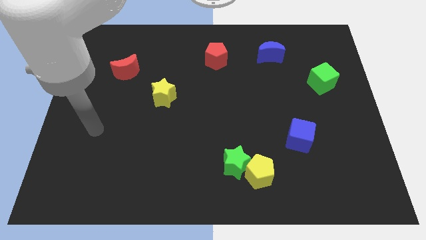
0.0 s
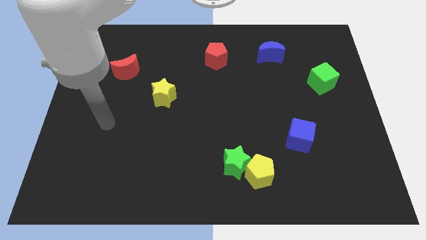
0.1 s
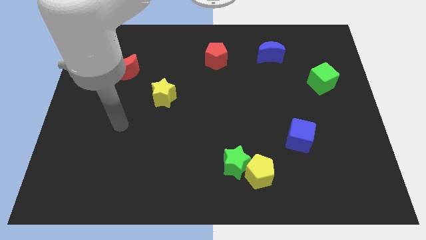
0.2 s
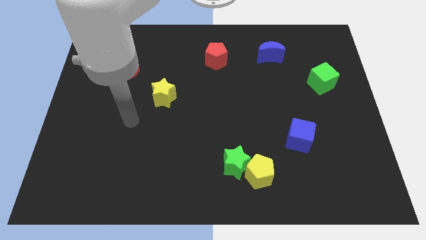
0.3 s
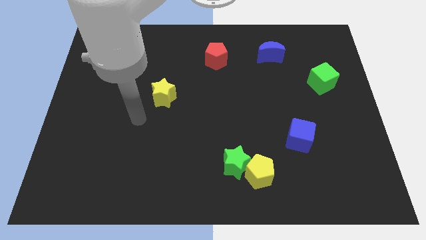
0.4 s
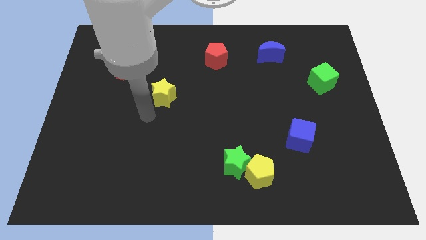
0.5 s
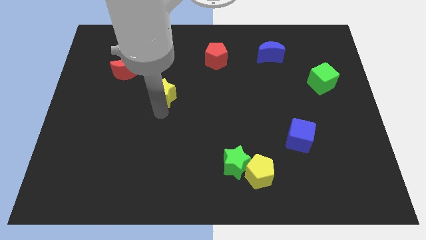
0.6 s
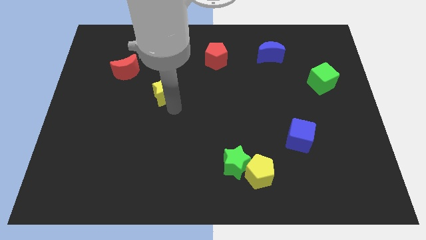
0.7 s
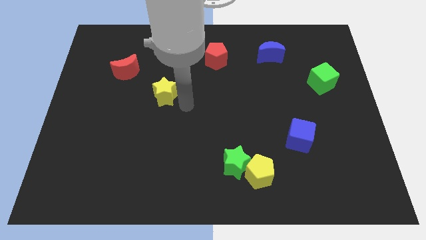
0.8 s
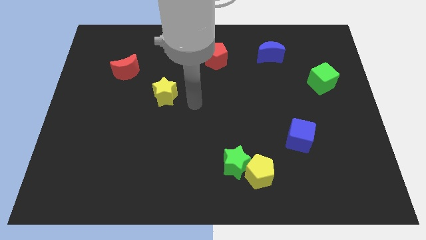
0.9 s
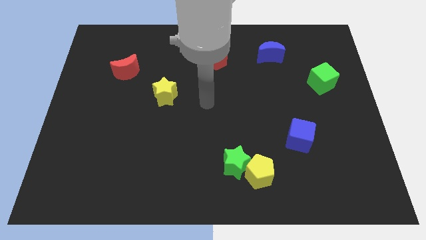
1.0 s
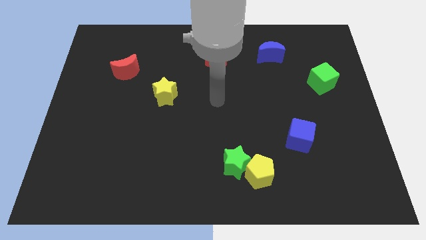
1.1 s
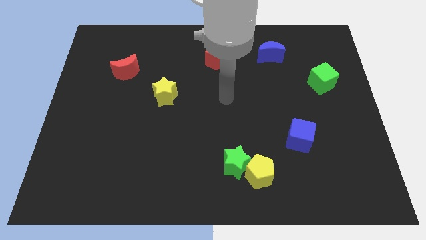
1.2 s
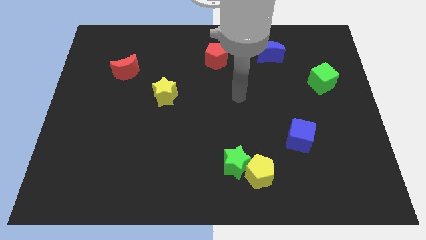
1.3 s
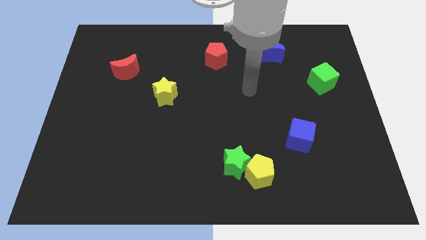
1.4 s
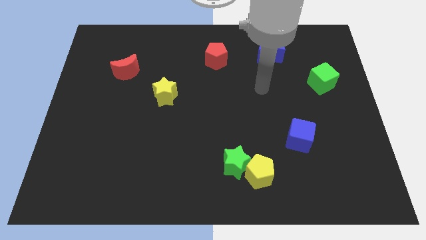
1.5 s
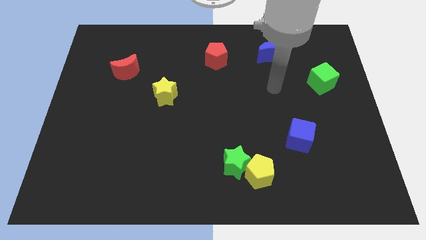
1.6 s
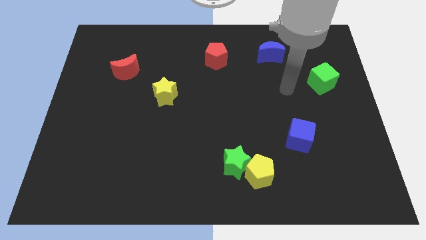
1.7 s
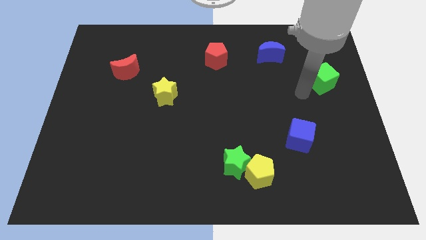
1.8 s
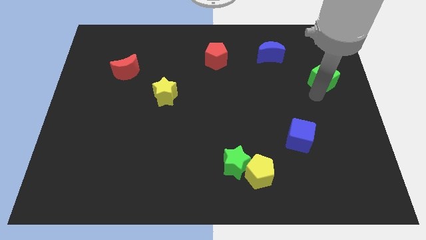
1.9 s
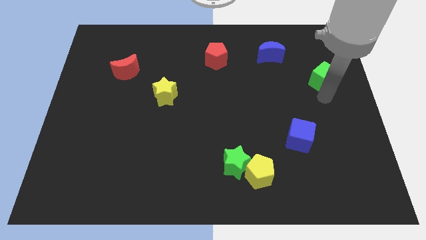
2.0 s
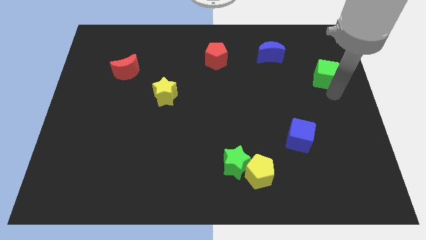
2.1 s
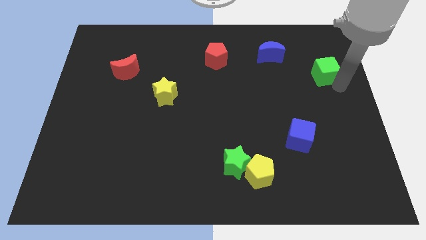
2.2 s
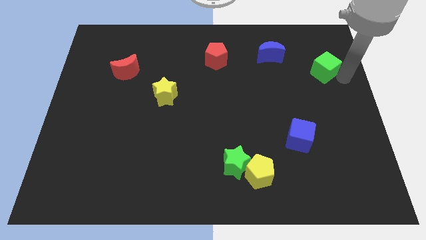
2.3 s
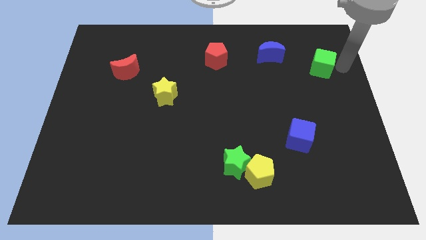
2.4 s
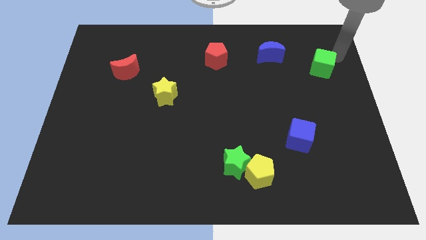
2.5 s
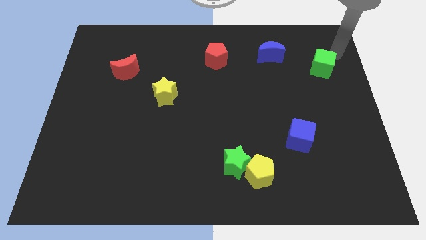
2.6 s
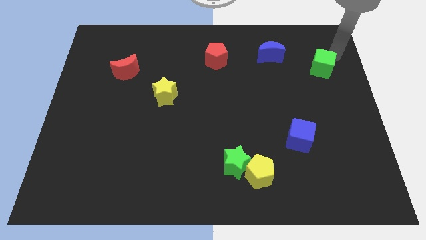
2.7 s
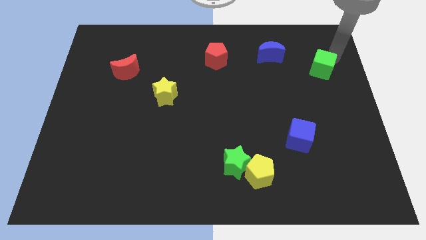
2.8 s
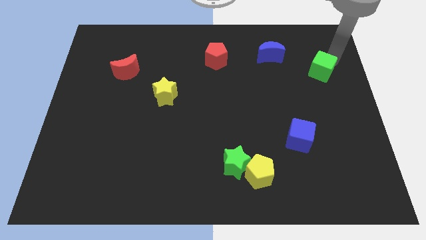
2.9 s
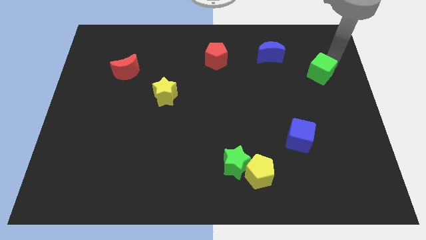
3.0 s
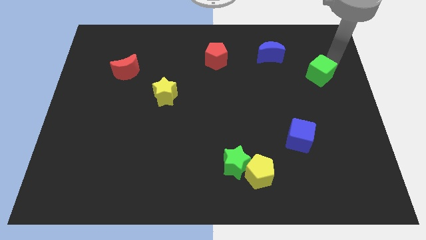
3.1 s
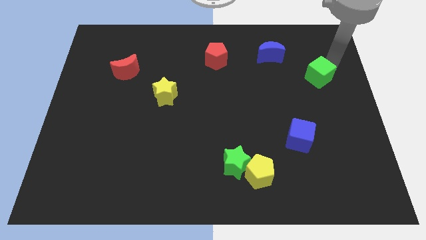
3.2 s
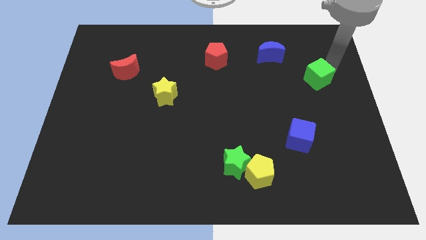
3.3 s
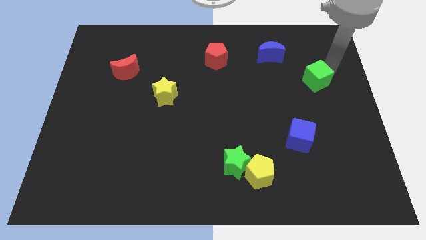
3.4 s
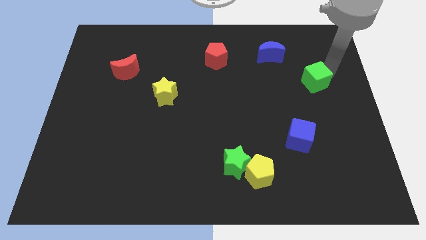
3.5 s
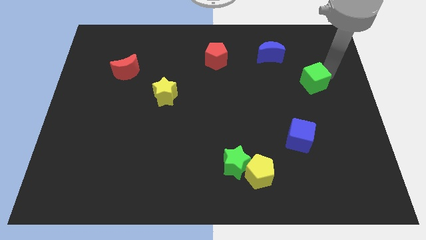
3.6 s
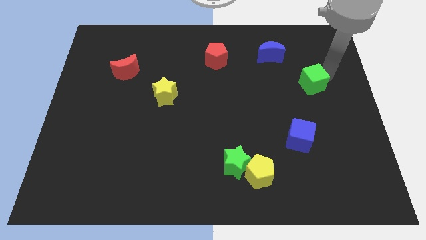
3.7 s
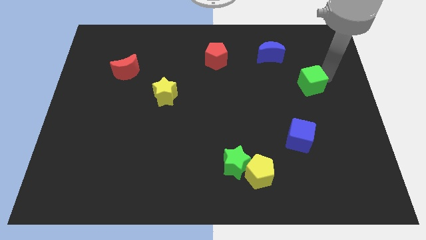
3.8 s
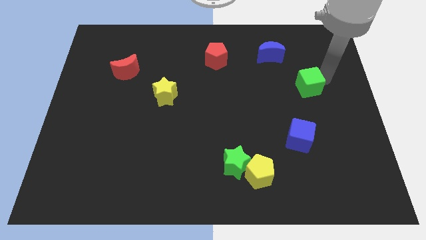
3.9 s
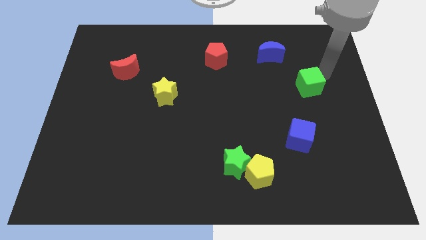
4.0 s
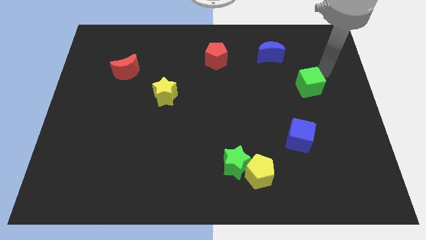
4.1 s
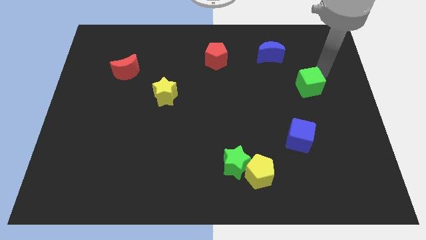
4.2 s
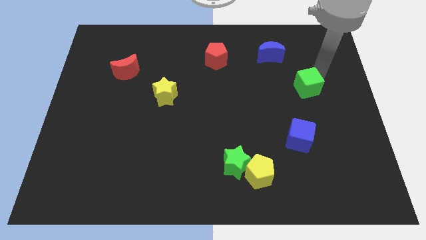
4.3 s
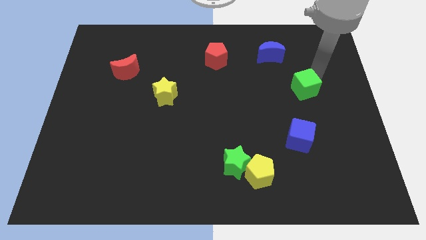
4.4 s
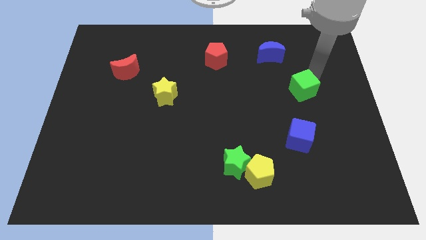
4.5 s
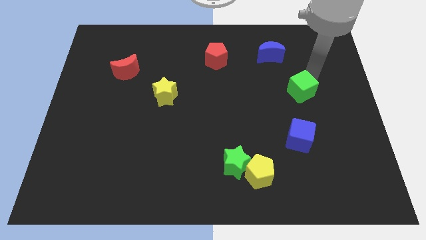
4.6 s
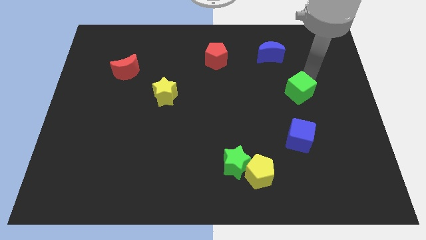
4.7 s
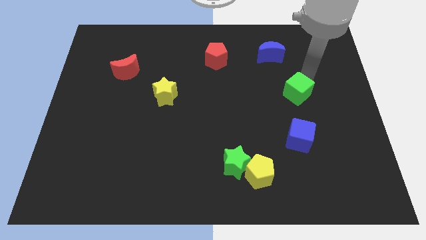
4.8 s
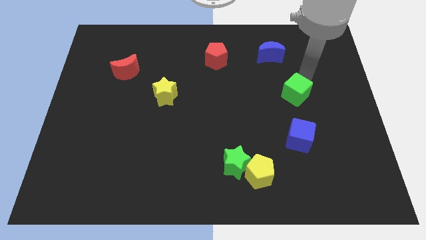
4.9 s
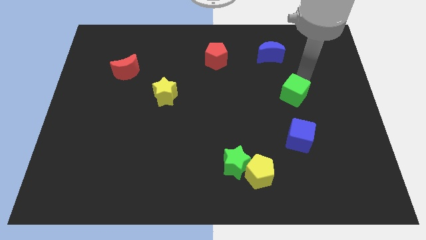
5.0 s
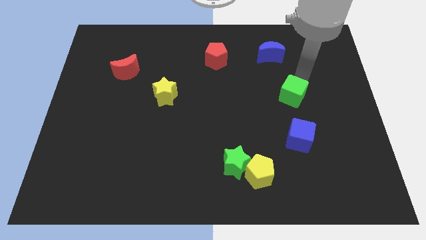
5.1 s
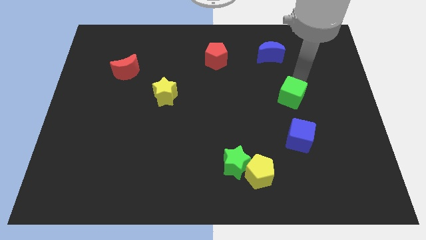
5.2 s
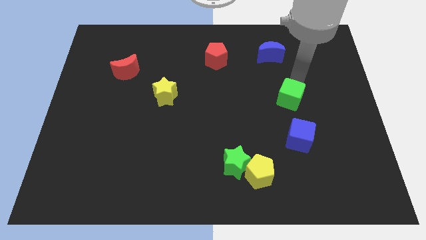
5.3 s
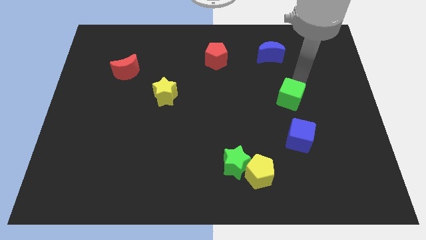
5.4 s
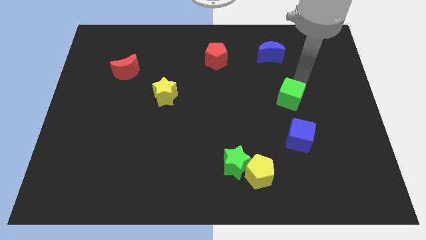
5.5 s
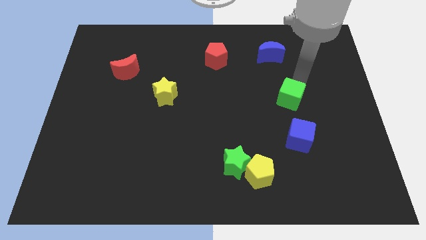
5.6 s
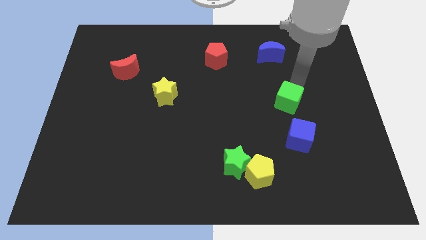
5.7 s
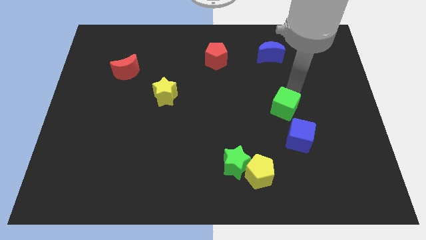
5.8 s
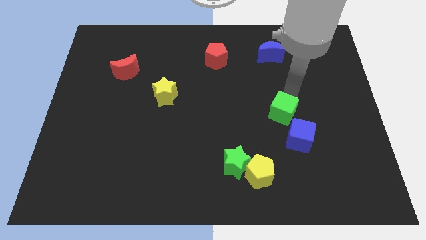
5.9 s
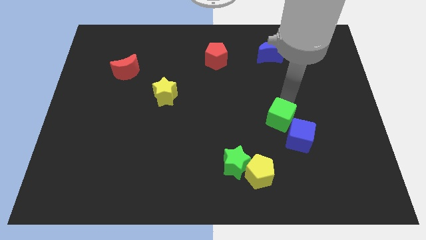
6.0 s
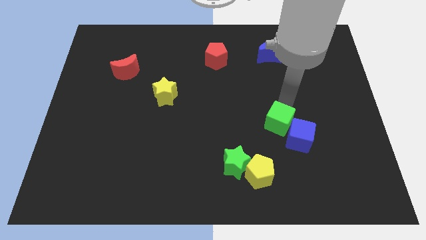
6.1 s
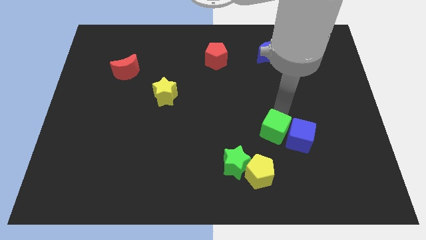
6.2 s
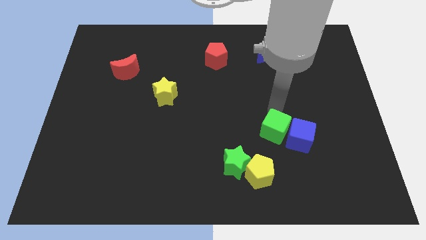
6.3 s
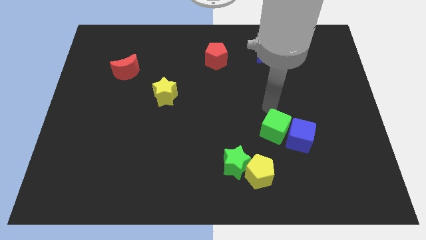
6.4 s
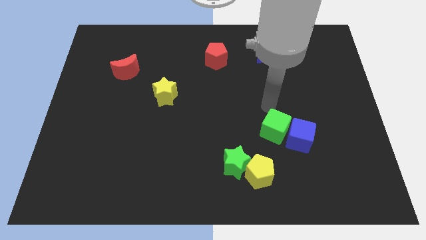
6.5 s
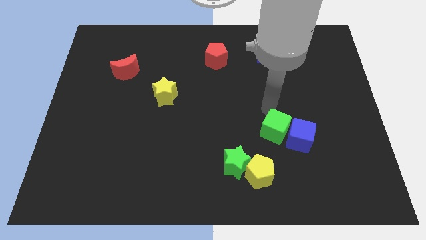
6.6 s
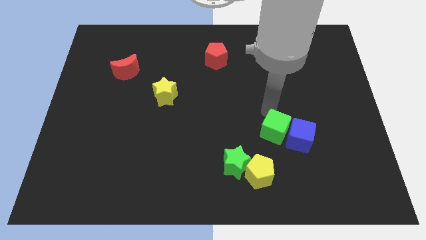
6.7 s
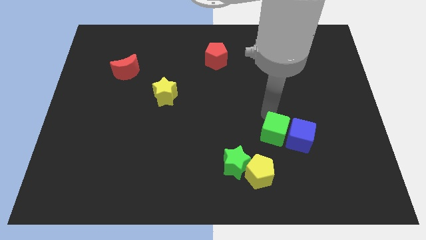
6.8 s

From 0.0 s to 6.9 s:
slide the green cube diagonally up and to the right of the yellow pentagon

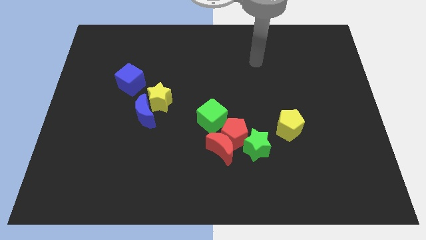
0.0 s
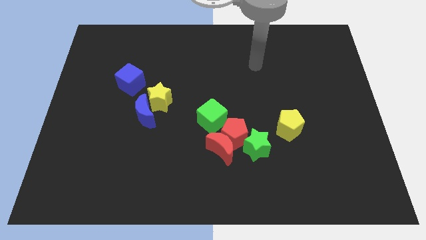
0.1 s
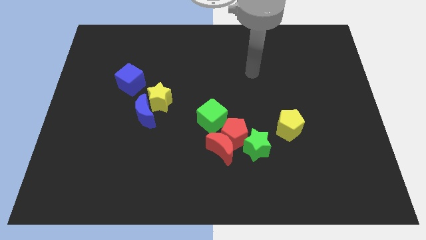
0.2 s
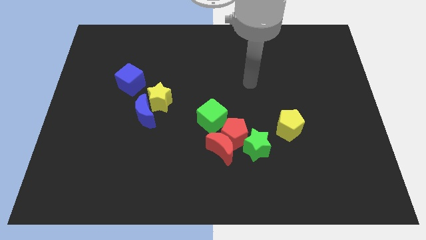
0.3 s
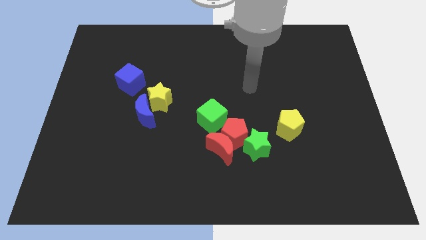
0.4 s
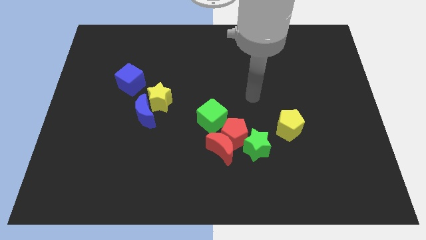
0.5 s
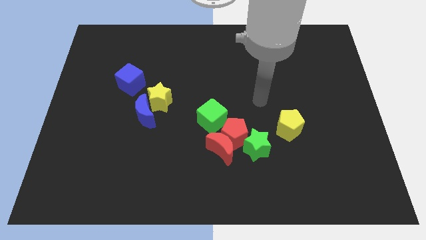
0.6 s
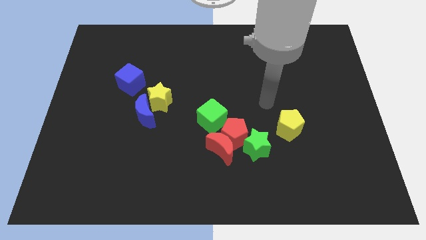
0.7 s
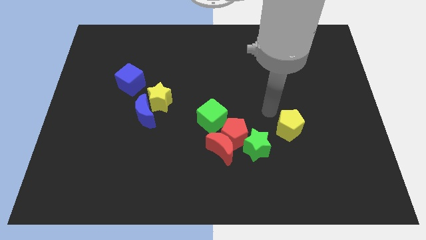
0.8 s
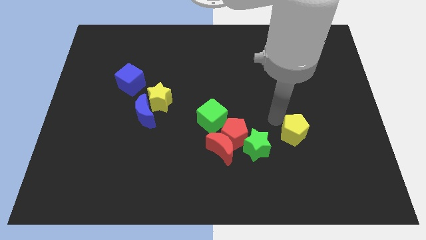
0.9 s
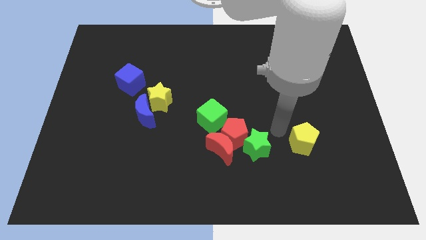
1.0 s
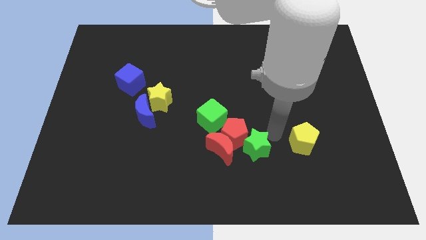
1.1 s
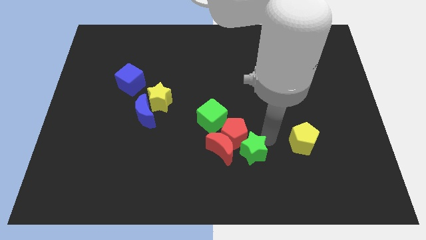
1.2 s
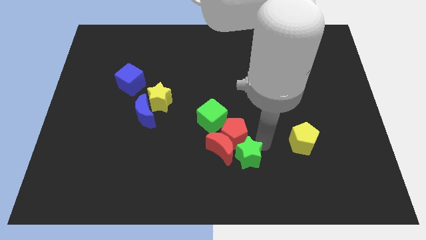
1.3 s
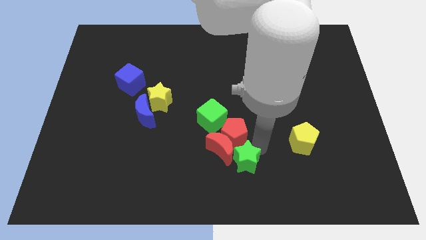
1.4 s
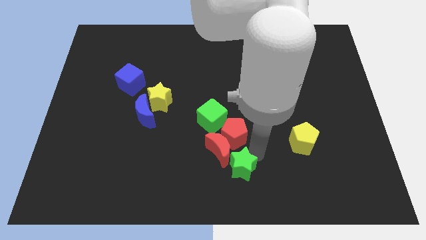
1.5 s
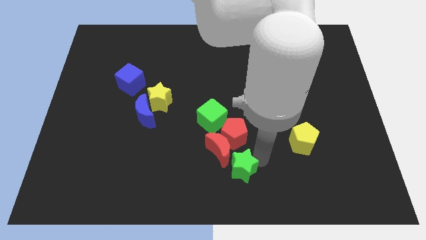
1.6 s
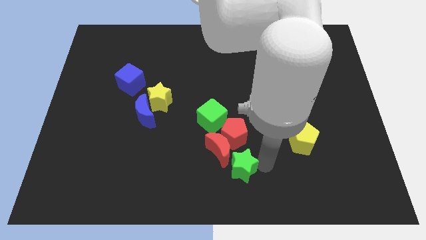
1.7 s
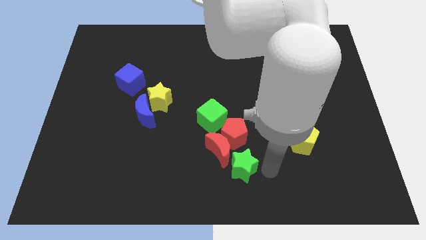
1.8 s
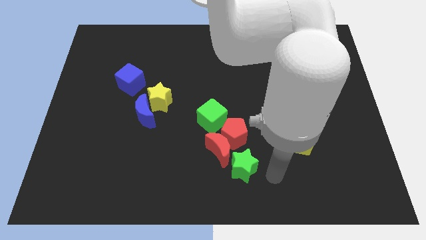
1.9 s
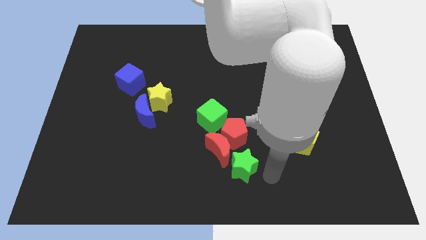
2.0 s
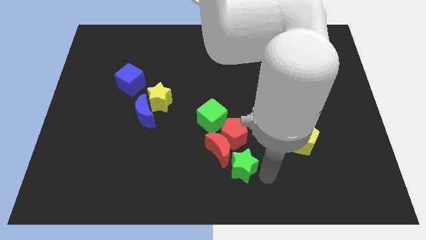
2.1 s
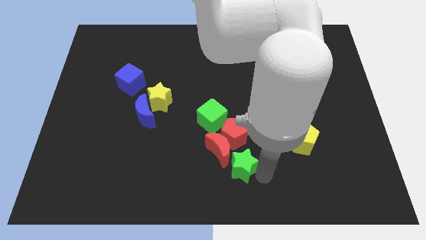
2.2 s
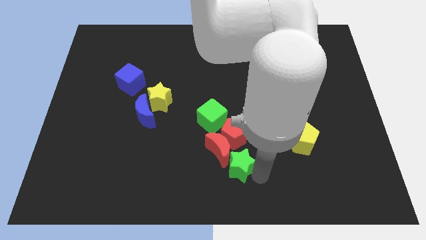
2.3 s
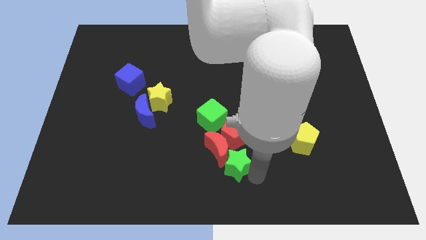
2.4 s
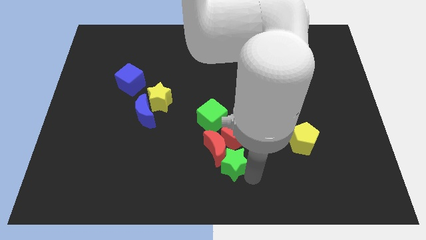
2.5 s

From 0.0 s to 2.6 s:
push the green star to the bottom of the green cube
